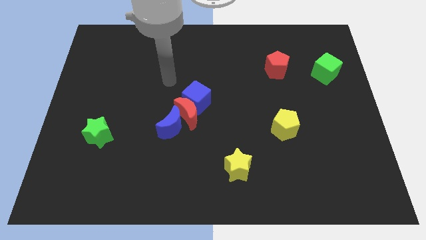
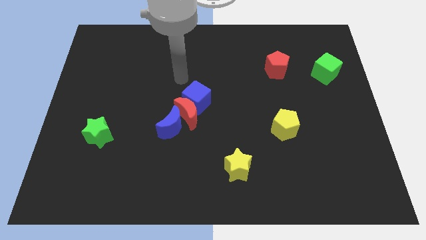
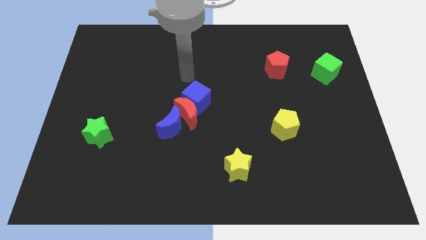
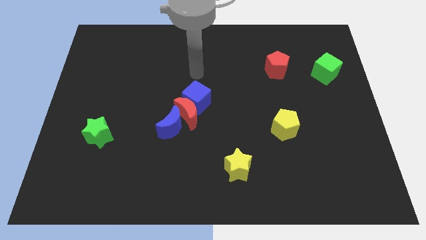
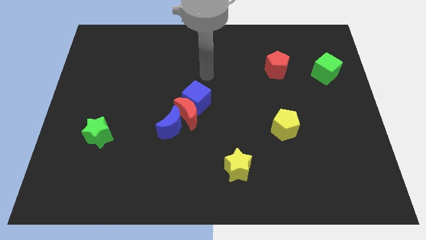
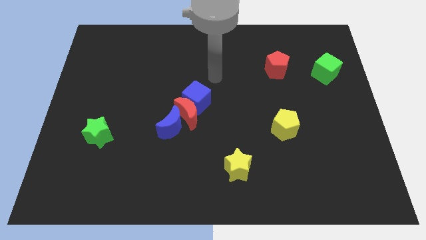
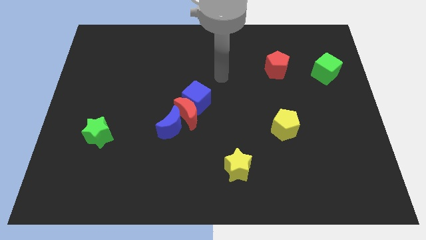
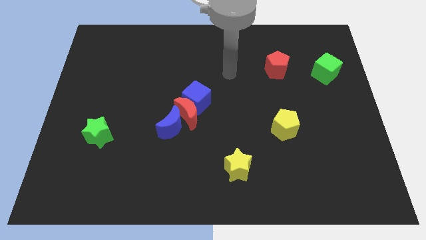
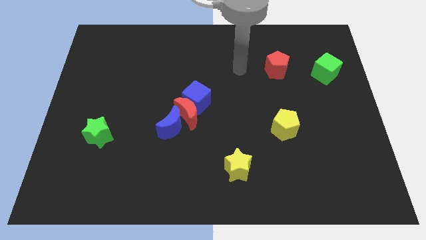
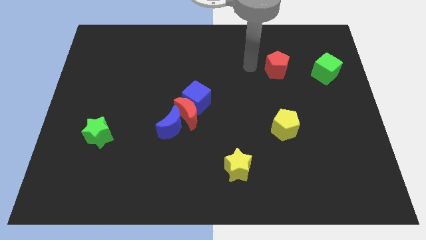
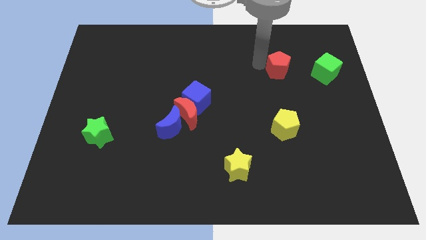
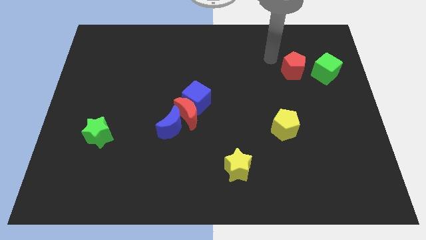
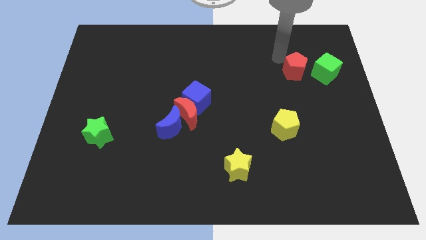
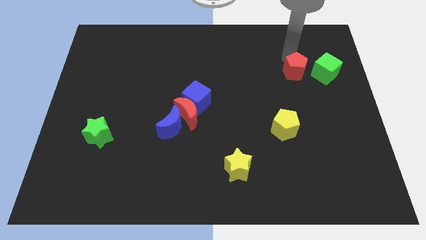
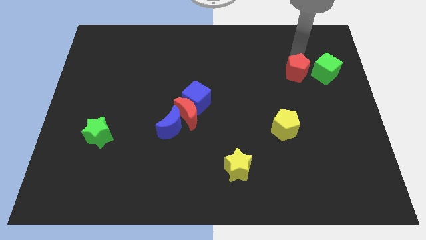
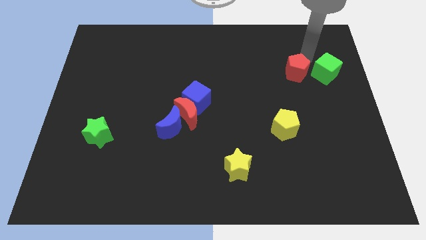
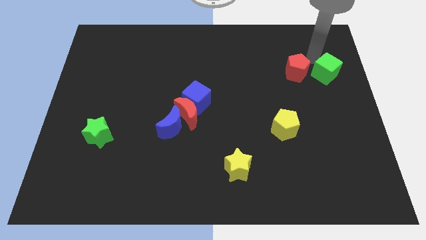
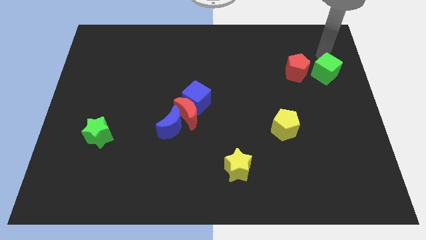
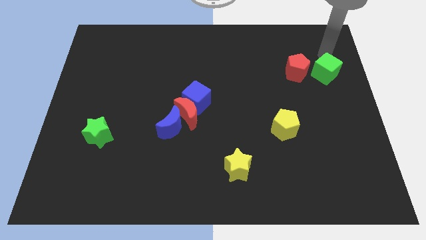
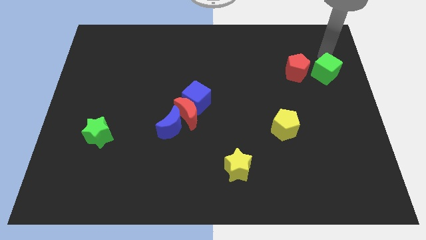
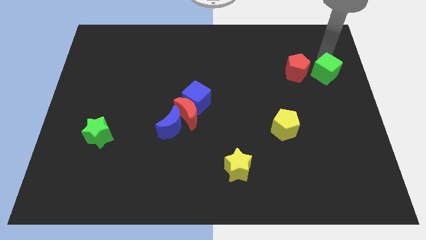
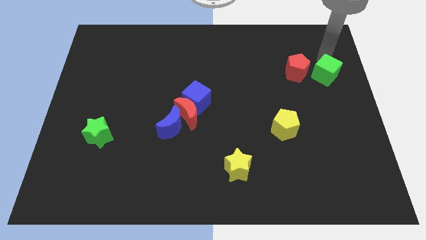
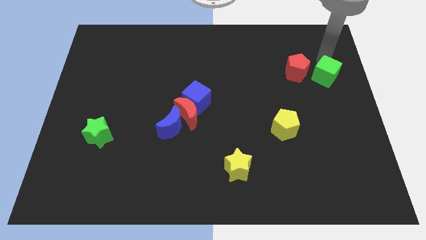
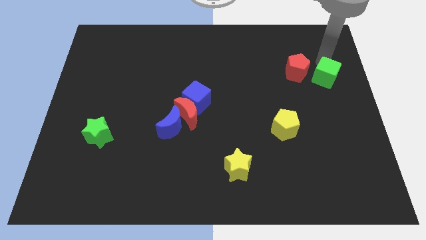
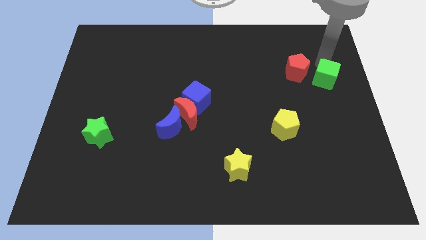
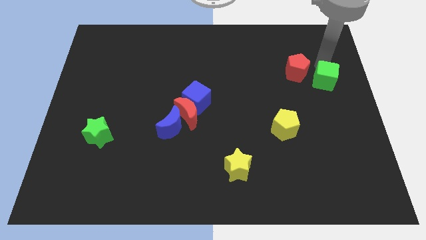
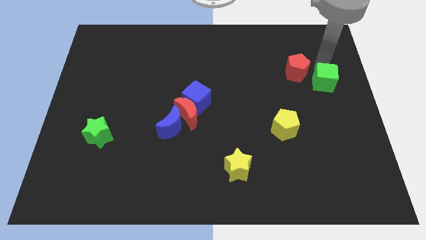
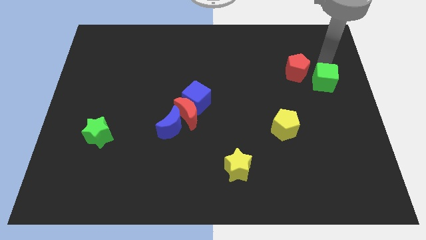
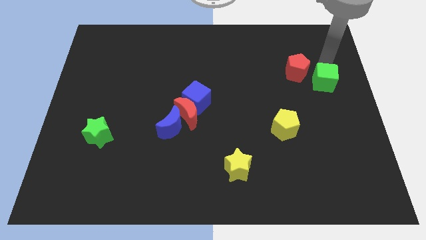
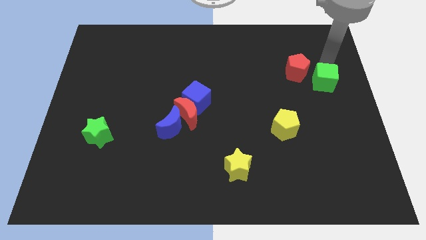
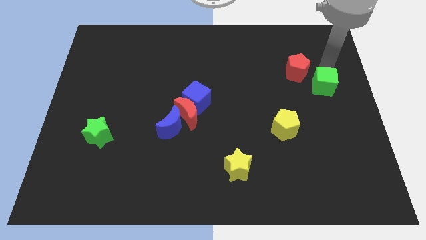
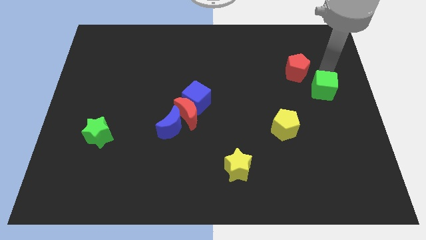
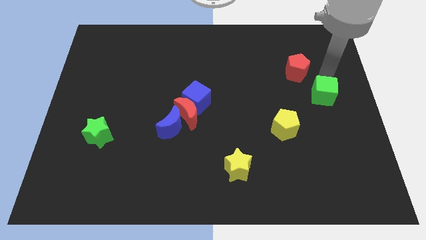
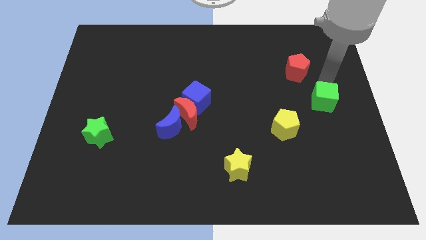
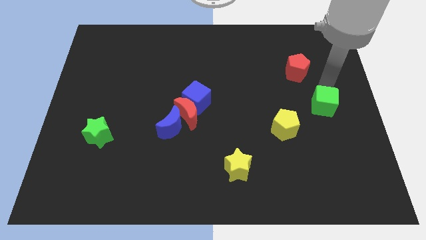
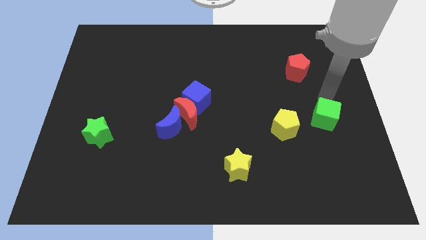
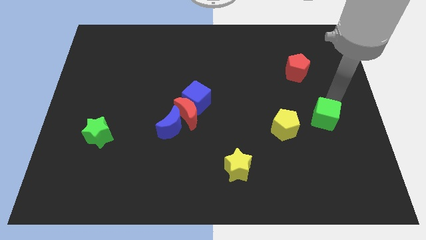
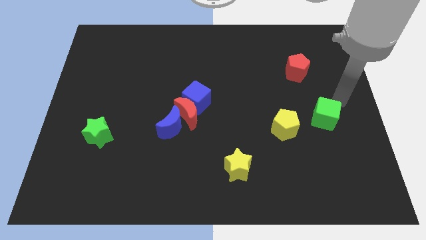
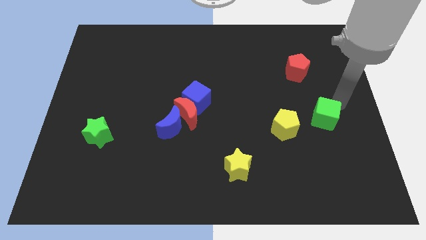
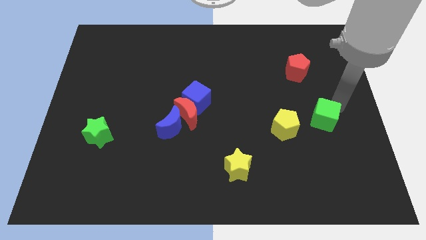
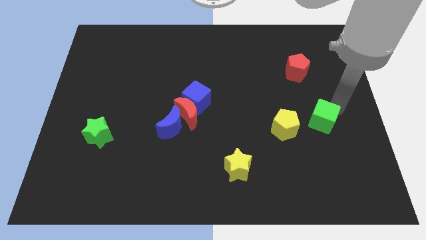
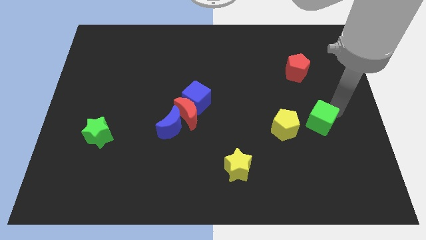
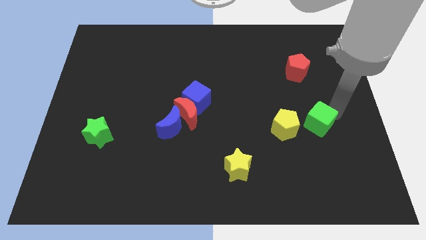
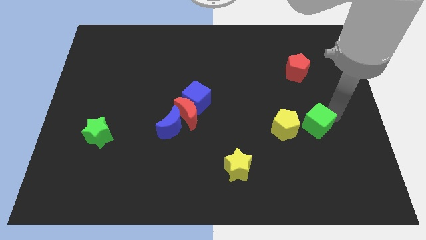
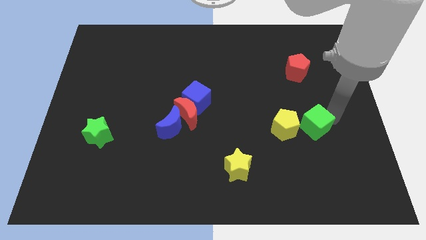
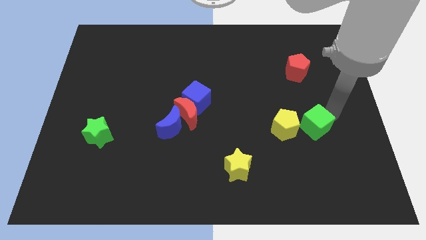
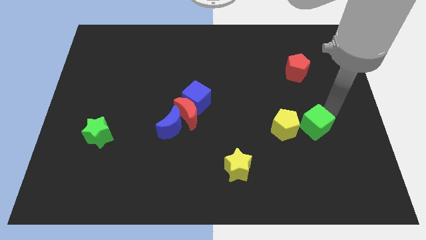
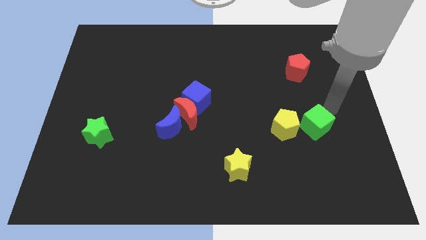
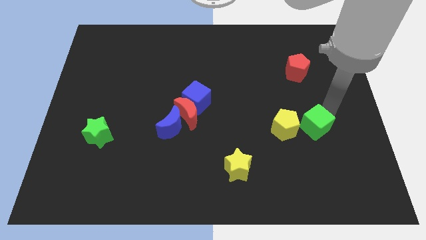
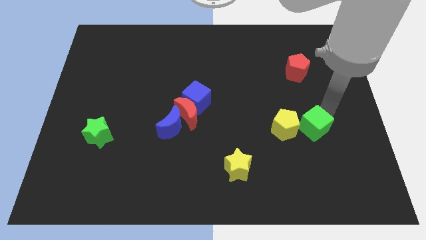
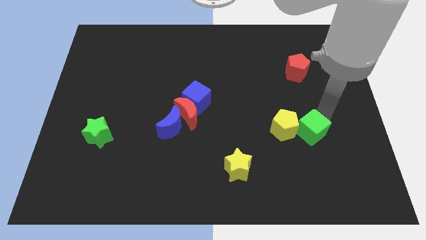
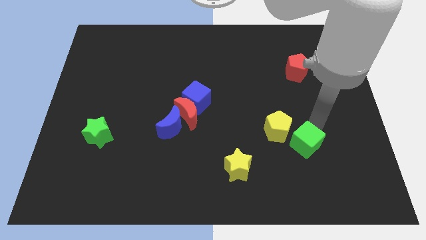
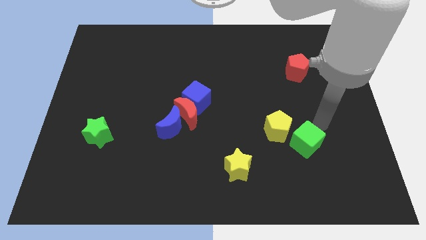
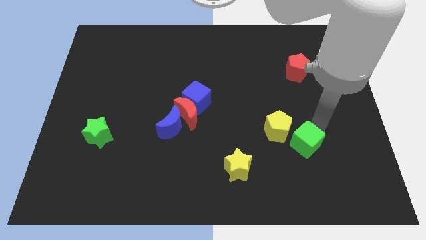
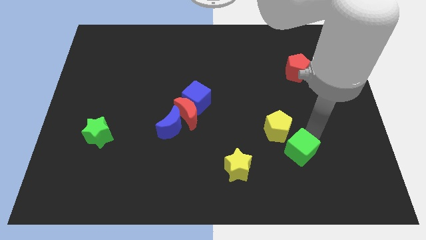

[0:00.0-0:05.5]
push the green cube to the bottom side of the yellow pentagon

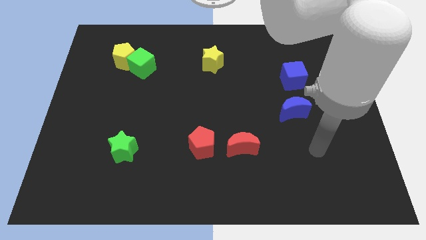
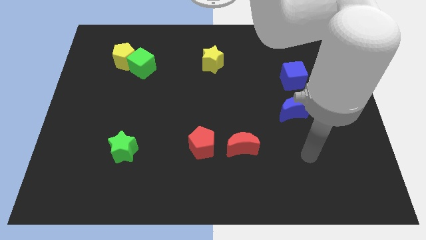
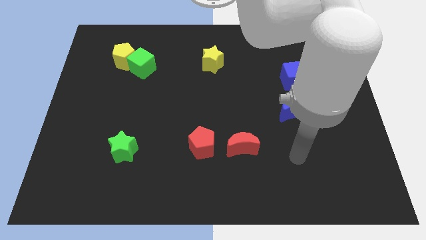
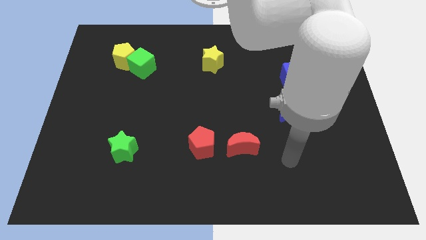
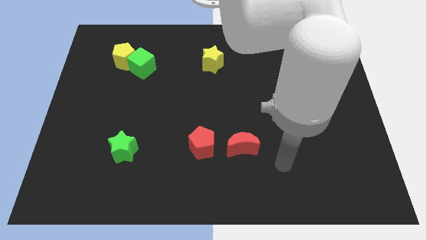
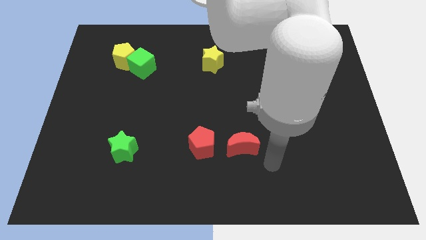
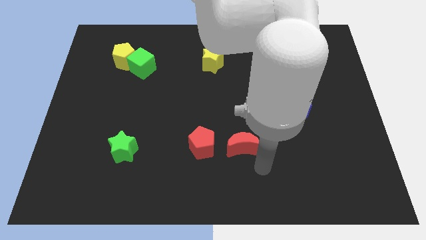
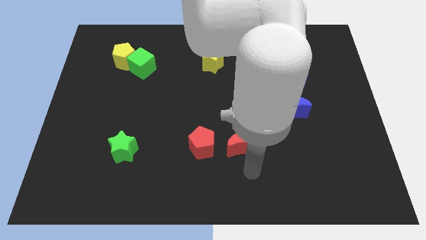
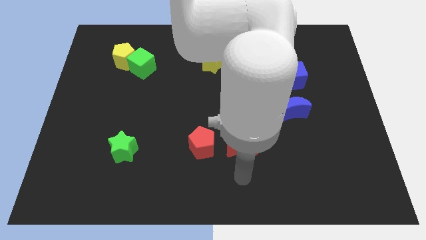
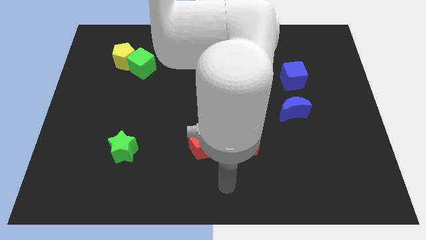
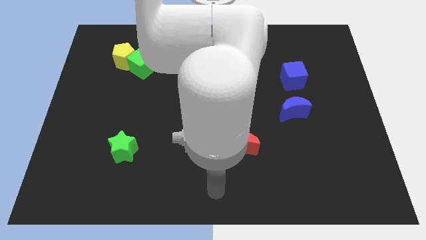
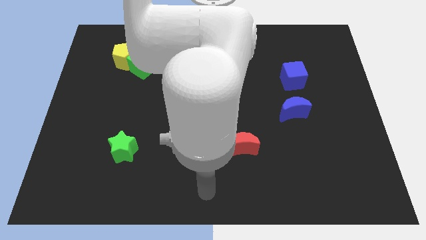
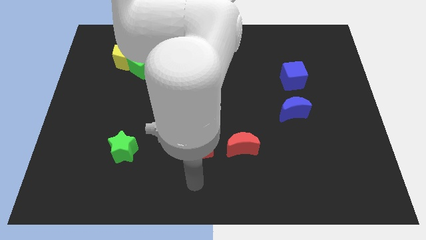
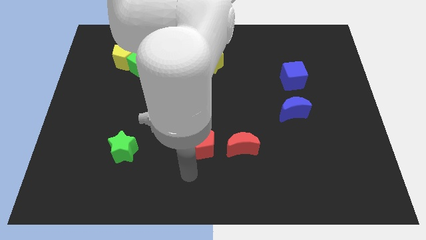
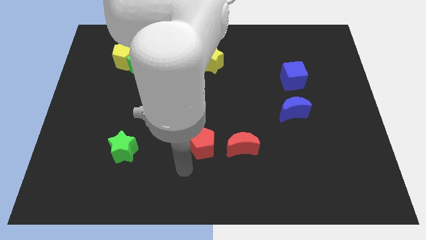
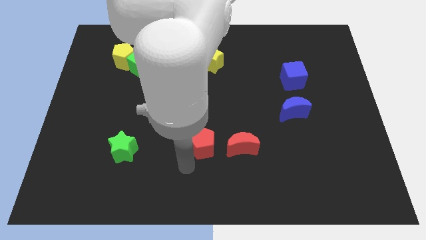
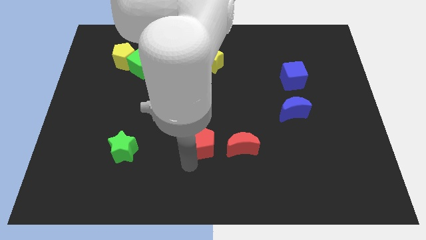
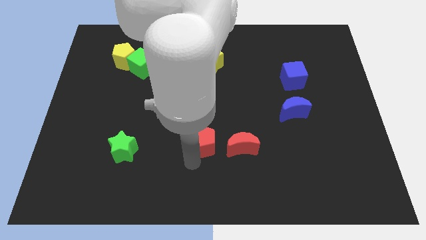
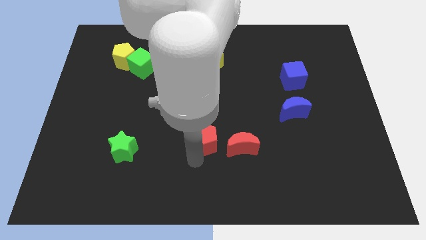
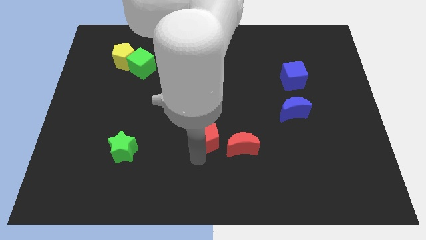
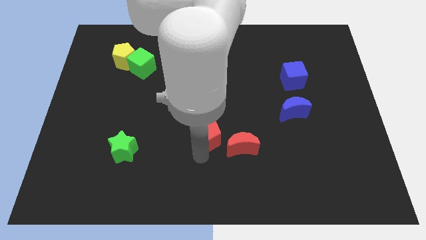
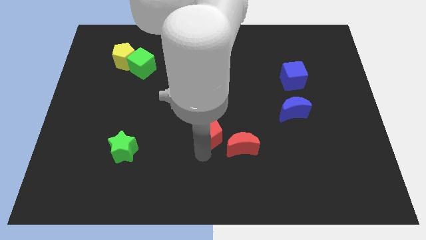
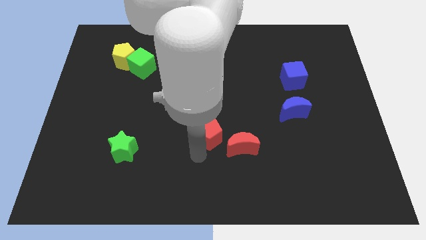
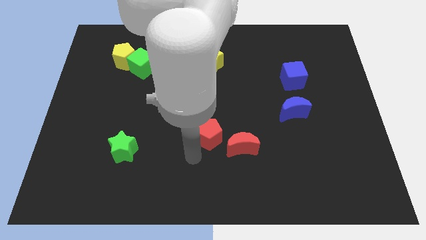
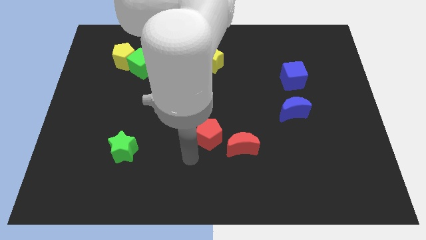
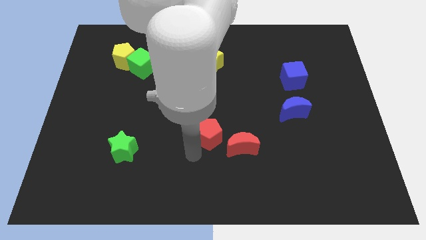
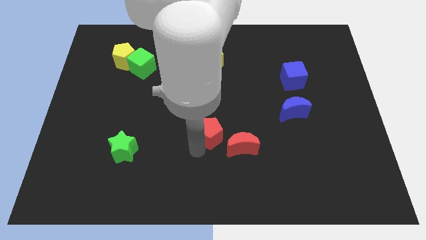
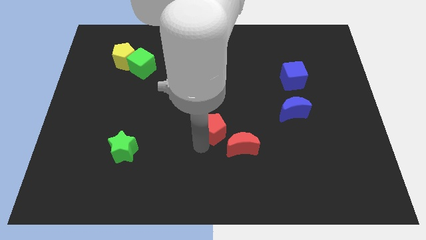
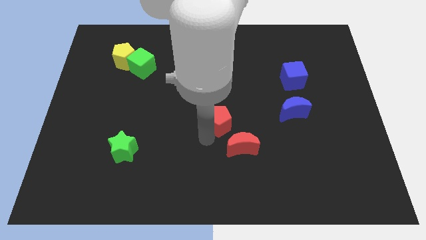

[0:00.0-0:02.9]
move the red pentagon to the top of the red moon
